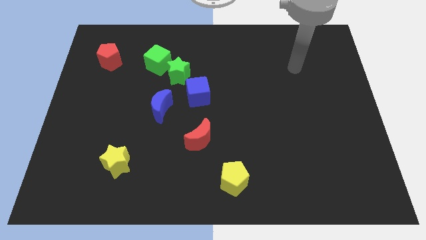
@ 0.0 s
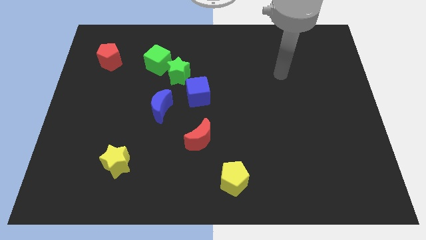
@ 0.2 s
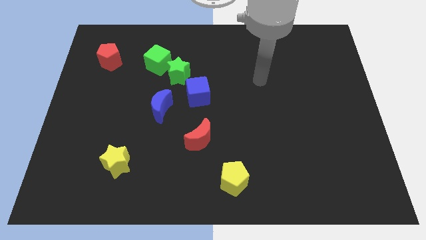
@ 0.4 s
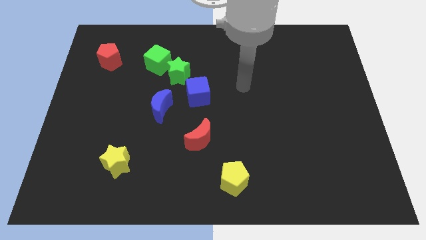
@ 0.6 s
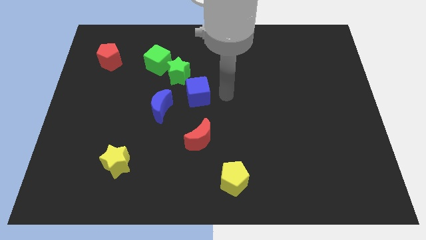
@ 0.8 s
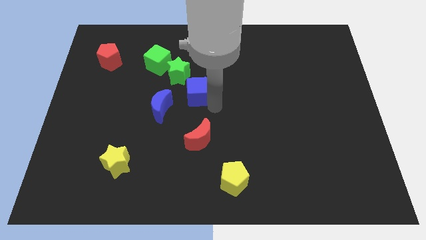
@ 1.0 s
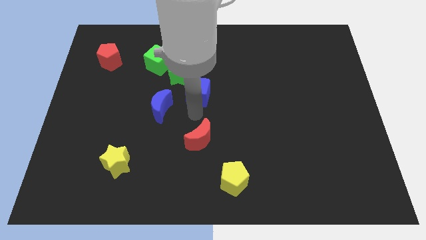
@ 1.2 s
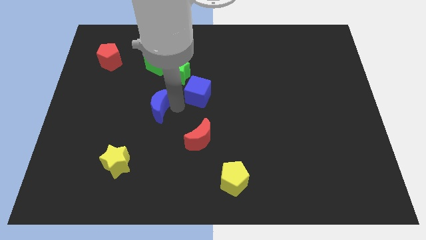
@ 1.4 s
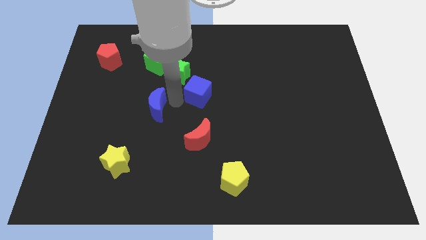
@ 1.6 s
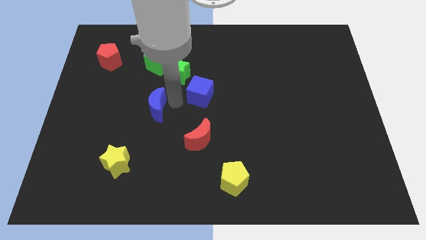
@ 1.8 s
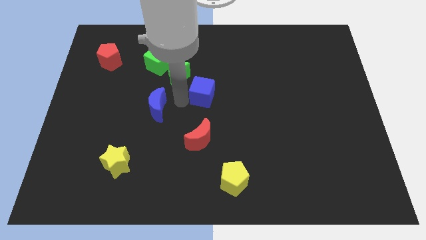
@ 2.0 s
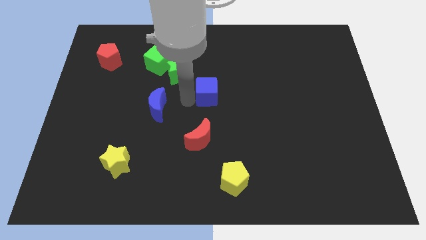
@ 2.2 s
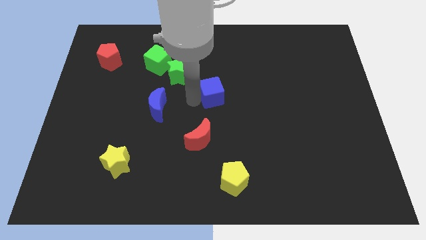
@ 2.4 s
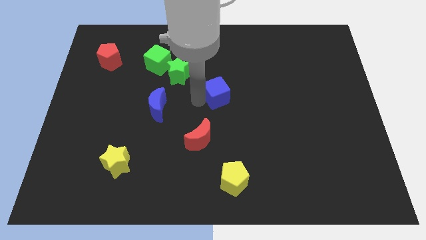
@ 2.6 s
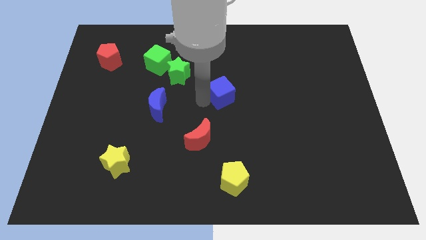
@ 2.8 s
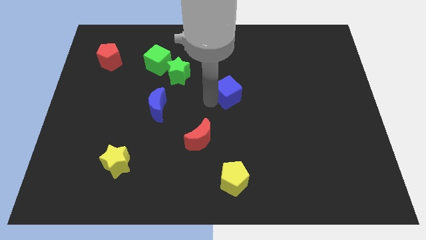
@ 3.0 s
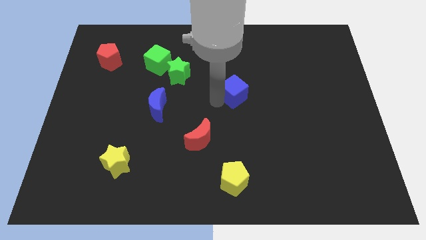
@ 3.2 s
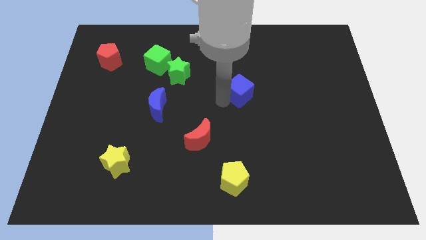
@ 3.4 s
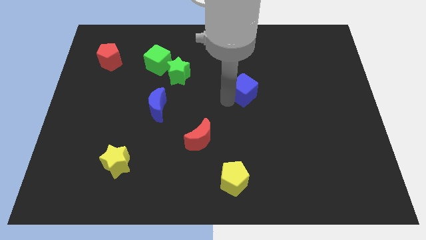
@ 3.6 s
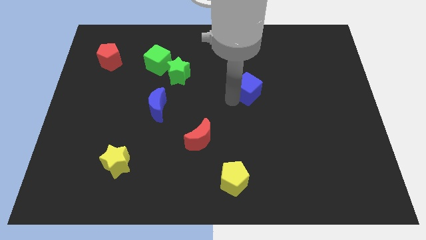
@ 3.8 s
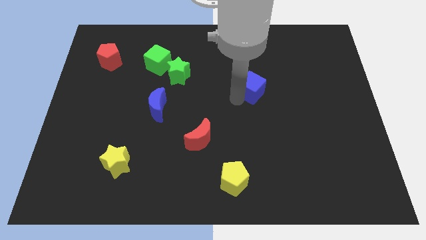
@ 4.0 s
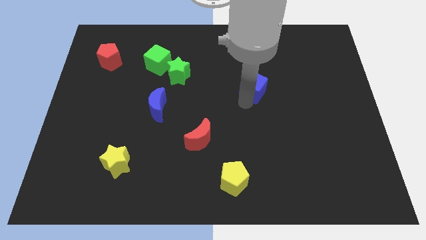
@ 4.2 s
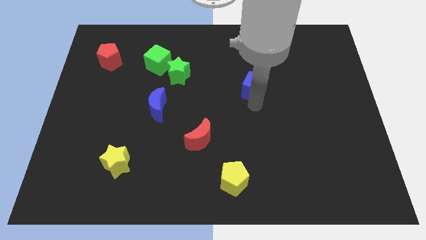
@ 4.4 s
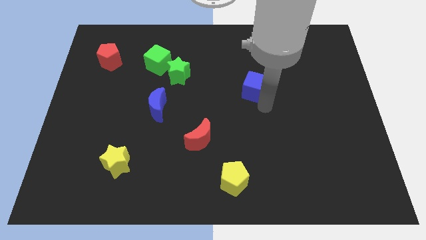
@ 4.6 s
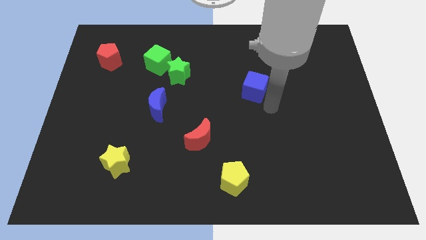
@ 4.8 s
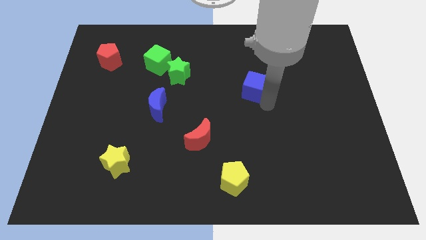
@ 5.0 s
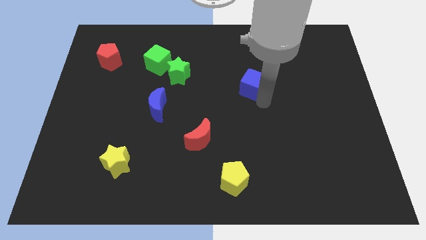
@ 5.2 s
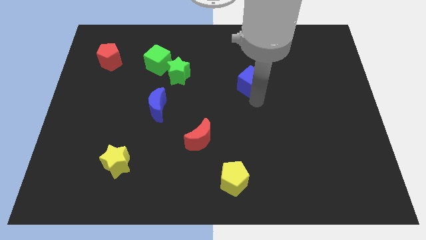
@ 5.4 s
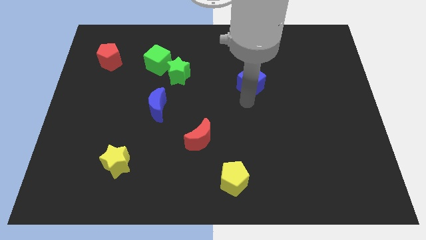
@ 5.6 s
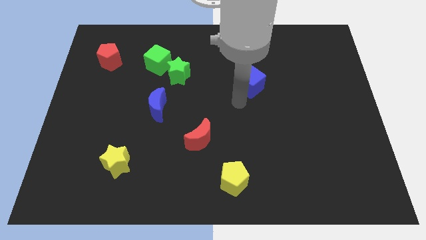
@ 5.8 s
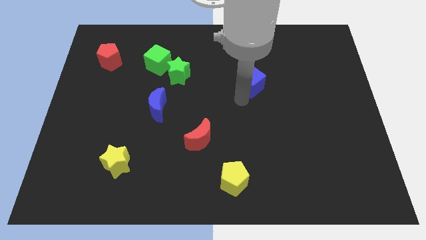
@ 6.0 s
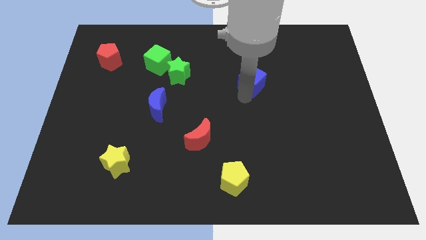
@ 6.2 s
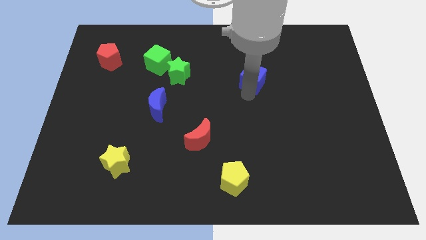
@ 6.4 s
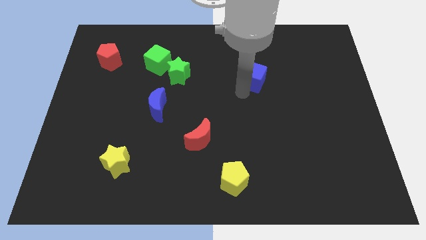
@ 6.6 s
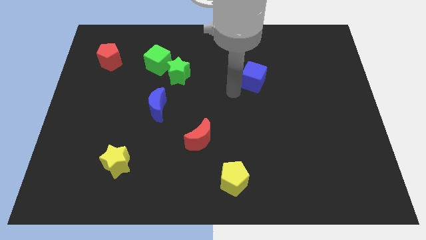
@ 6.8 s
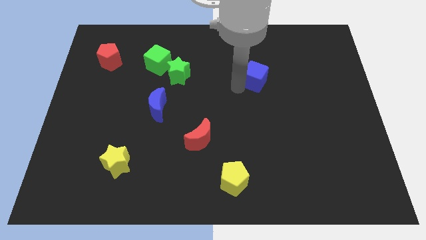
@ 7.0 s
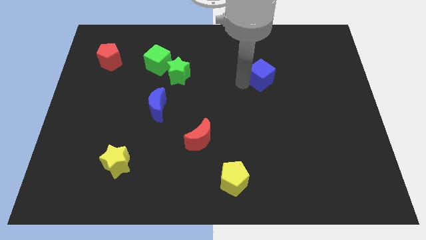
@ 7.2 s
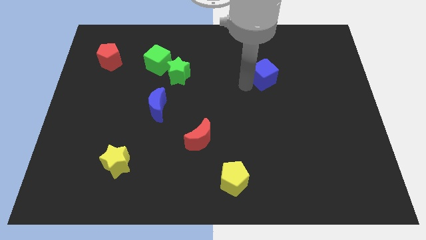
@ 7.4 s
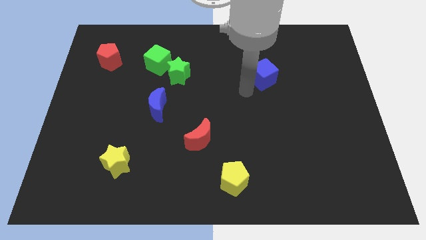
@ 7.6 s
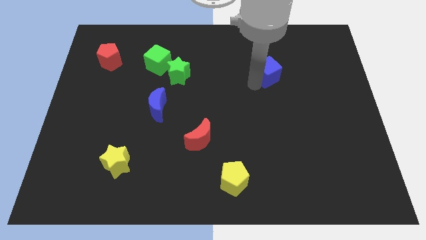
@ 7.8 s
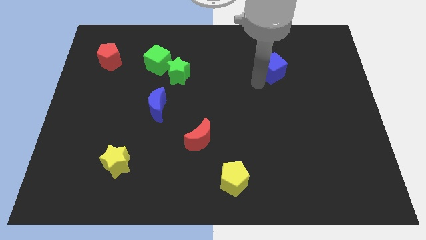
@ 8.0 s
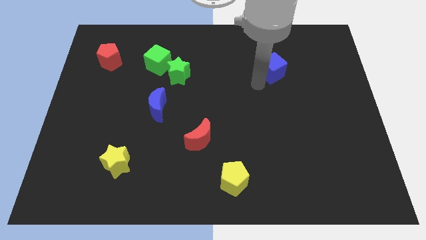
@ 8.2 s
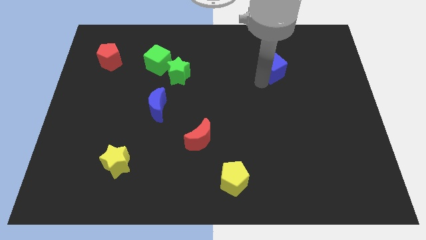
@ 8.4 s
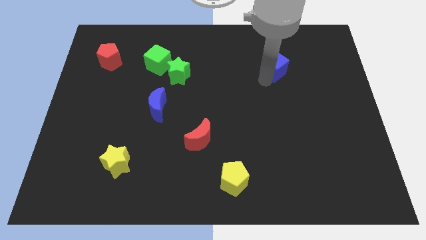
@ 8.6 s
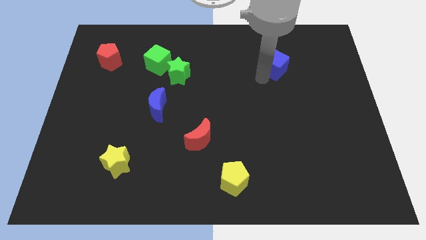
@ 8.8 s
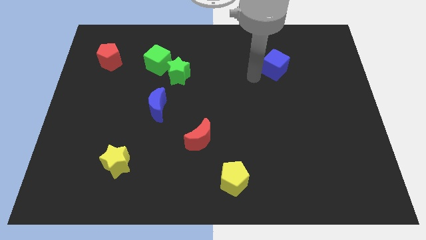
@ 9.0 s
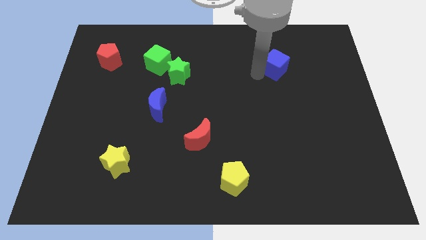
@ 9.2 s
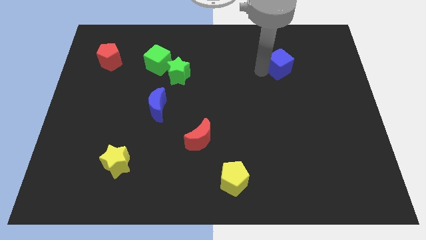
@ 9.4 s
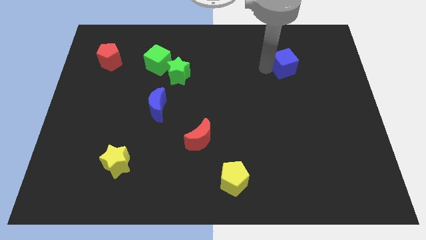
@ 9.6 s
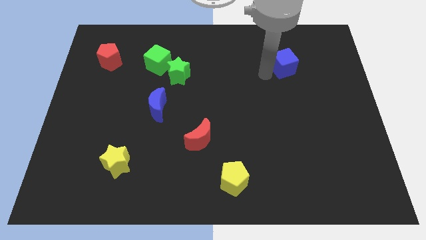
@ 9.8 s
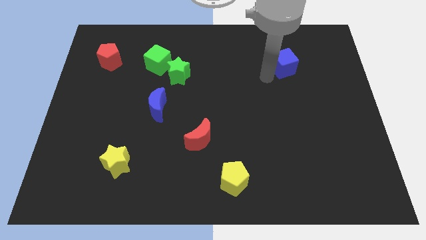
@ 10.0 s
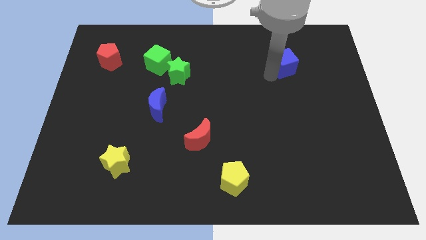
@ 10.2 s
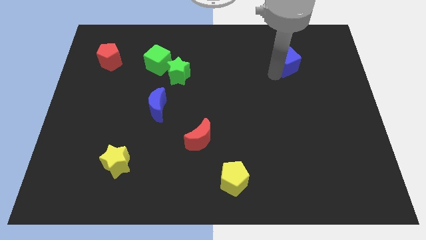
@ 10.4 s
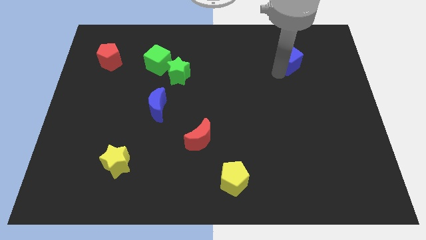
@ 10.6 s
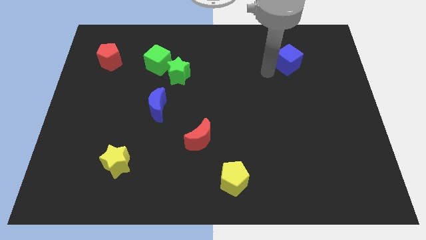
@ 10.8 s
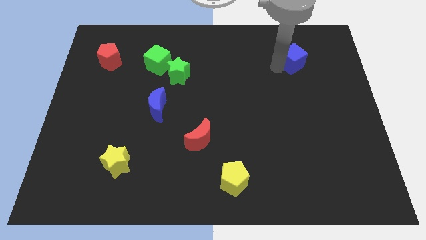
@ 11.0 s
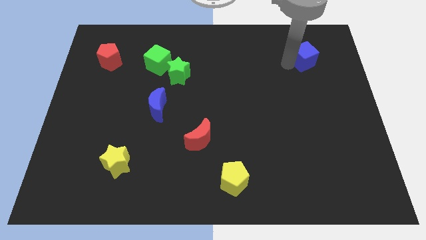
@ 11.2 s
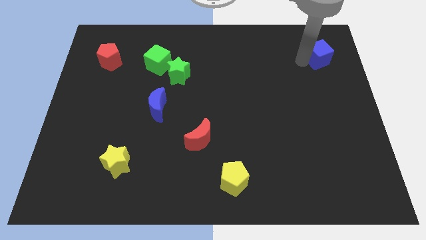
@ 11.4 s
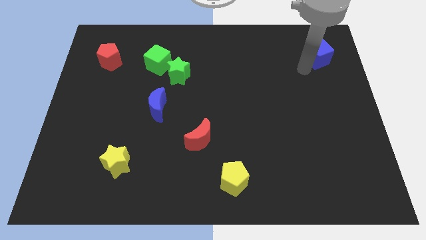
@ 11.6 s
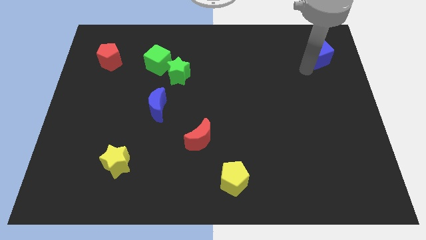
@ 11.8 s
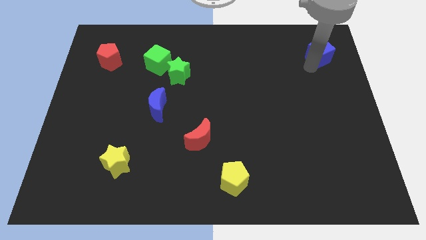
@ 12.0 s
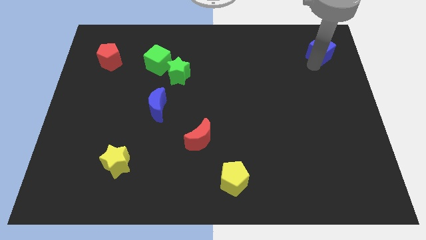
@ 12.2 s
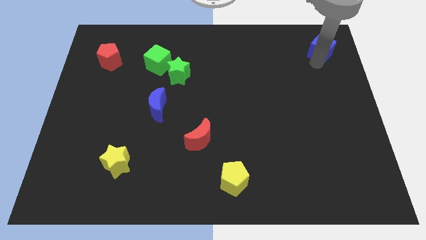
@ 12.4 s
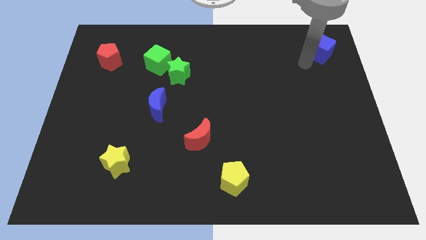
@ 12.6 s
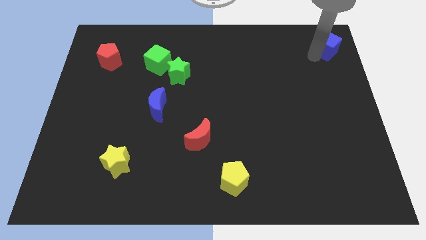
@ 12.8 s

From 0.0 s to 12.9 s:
move the blue cube to the top right corner
